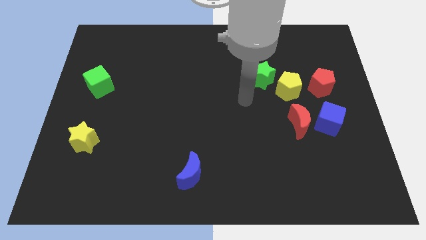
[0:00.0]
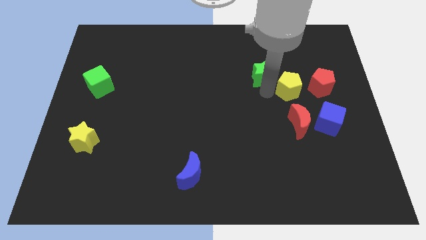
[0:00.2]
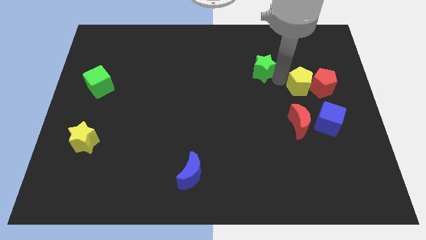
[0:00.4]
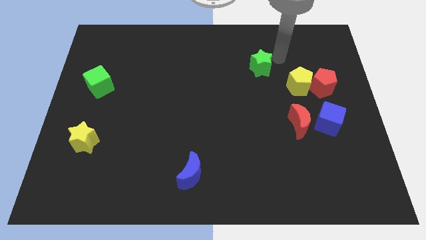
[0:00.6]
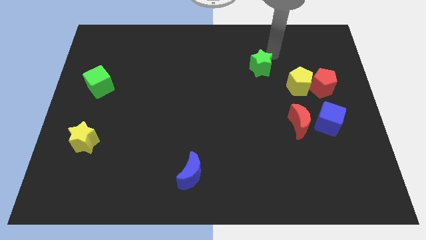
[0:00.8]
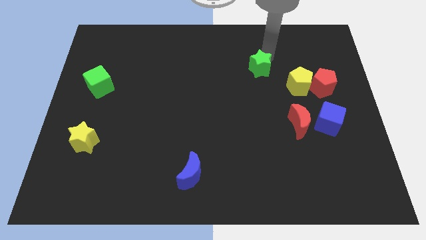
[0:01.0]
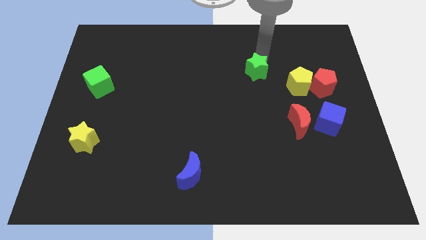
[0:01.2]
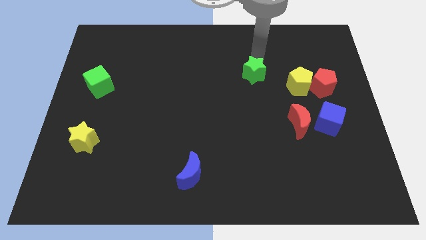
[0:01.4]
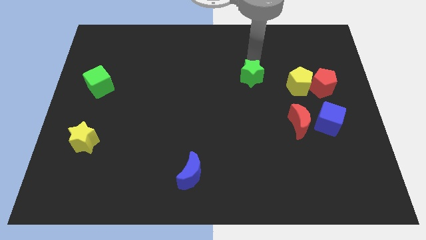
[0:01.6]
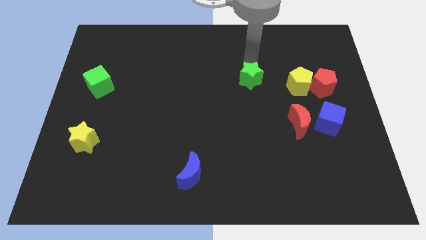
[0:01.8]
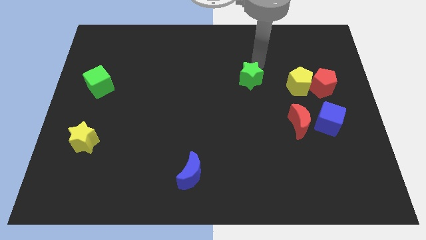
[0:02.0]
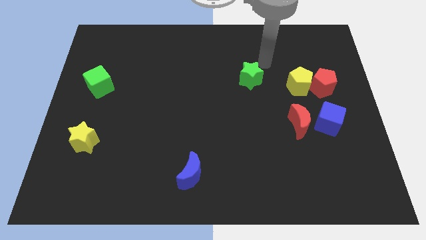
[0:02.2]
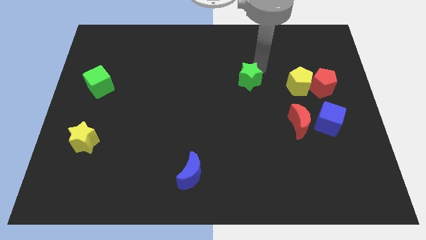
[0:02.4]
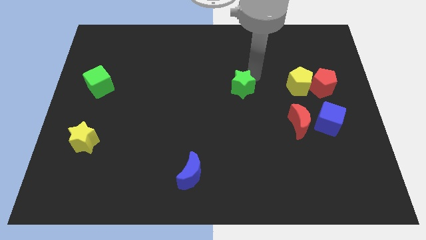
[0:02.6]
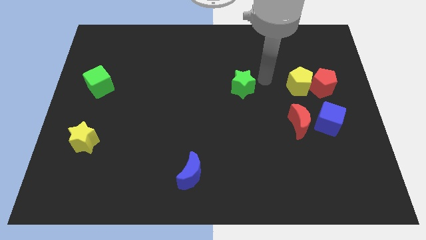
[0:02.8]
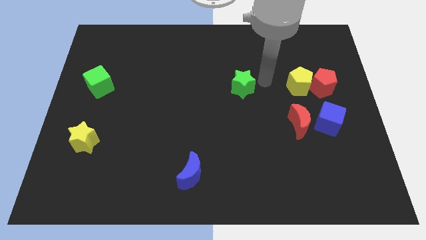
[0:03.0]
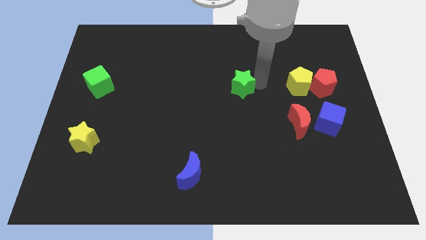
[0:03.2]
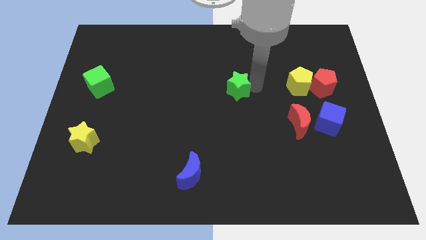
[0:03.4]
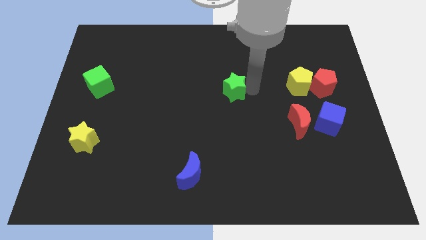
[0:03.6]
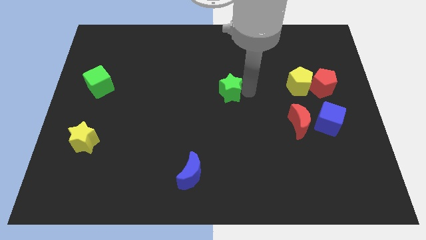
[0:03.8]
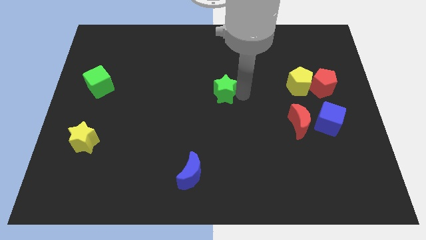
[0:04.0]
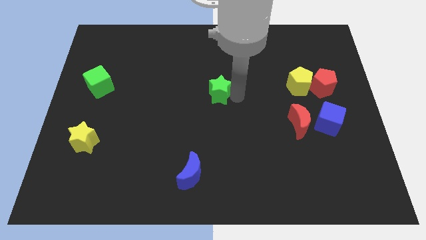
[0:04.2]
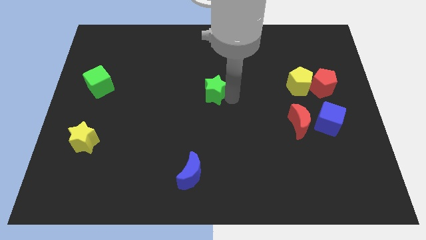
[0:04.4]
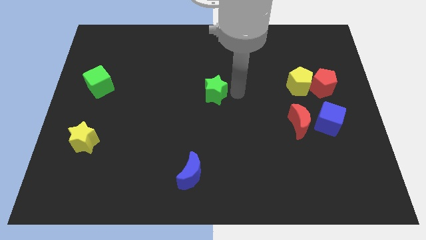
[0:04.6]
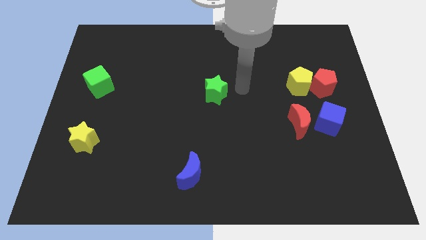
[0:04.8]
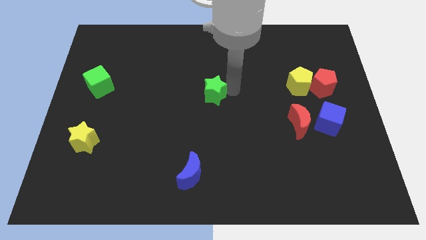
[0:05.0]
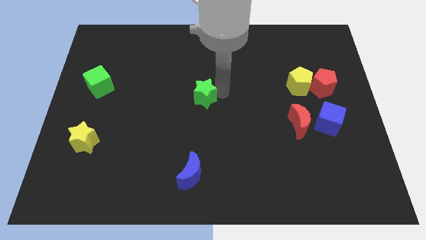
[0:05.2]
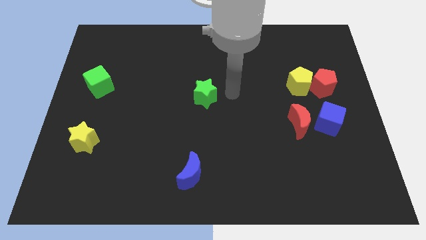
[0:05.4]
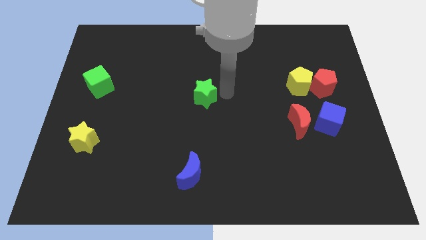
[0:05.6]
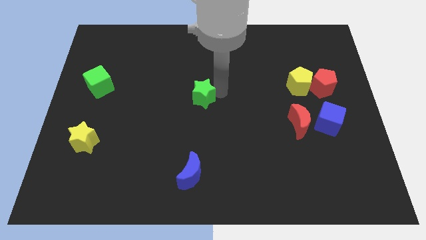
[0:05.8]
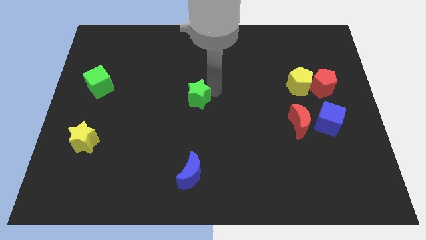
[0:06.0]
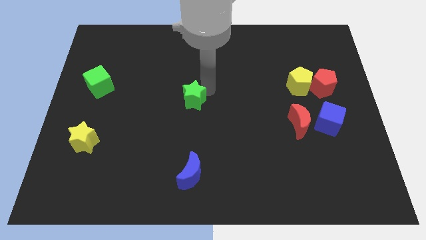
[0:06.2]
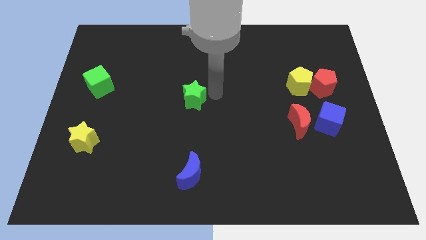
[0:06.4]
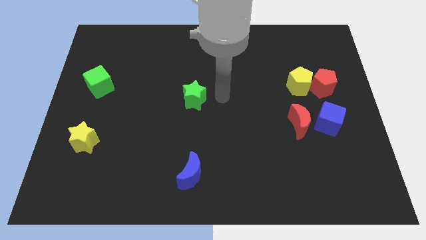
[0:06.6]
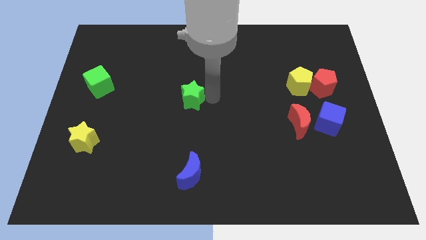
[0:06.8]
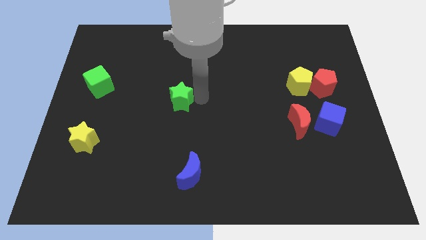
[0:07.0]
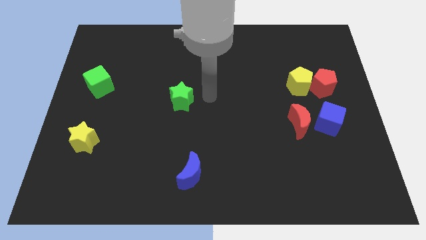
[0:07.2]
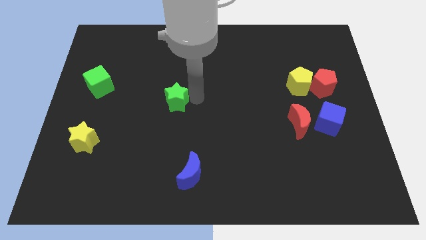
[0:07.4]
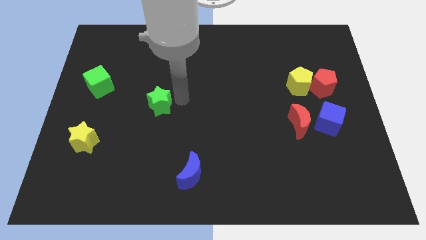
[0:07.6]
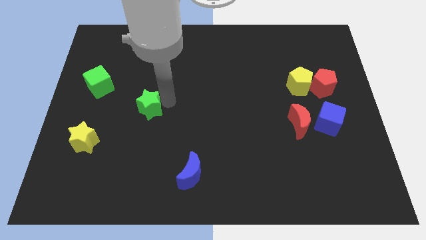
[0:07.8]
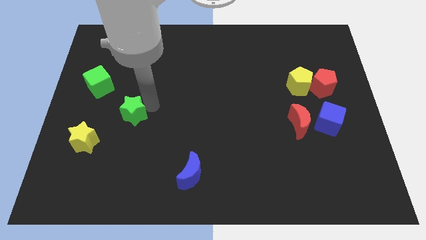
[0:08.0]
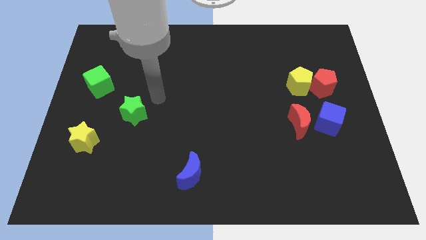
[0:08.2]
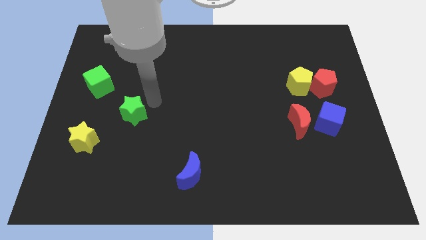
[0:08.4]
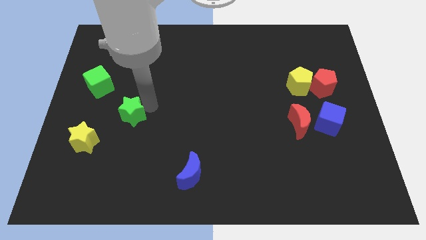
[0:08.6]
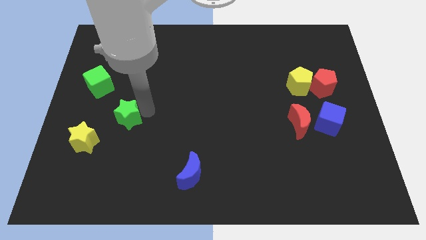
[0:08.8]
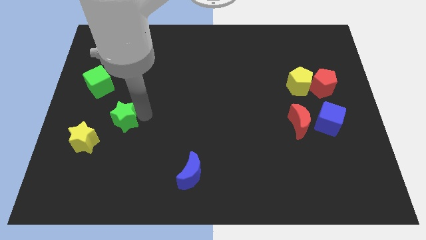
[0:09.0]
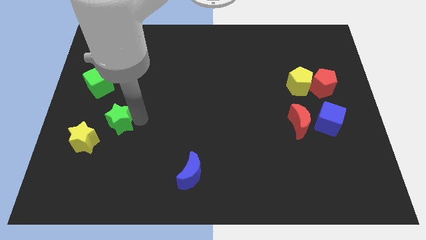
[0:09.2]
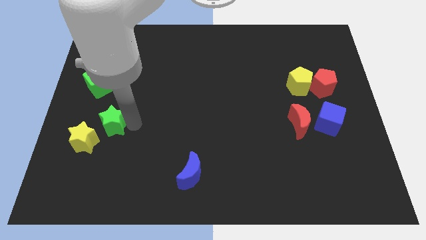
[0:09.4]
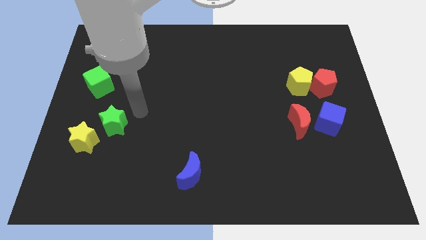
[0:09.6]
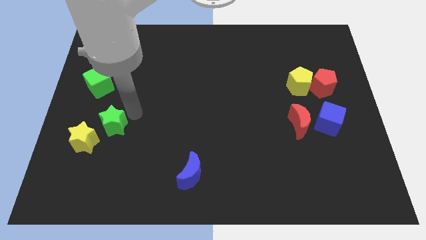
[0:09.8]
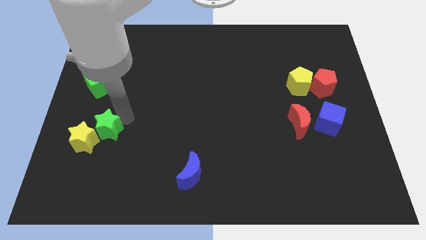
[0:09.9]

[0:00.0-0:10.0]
move the green star towards the yellow star

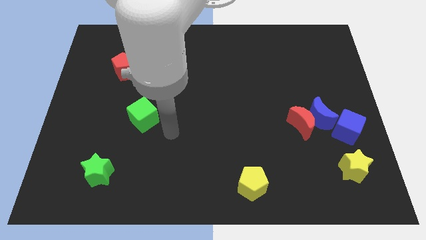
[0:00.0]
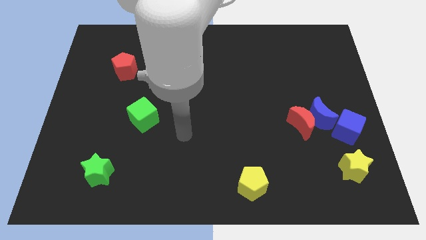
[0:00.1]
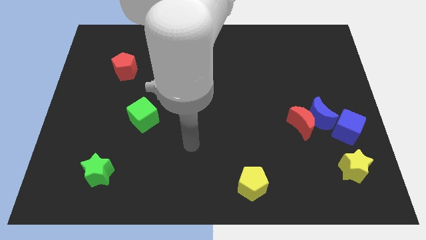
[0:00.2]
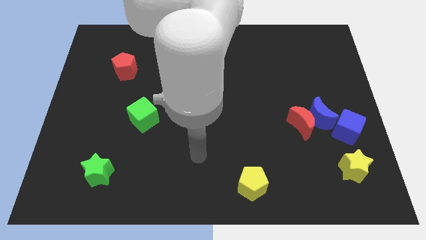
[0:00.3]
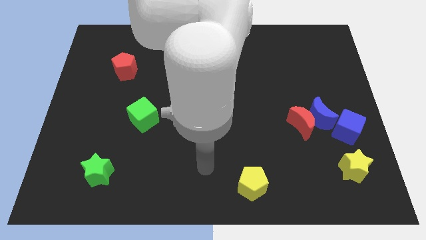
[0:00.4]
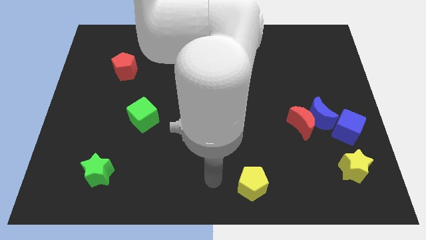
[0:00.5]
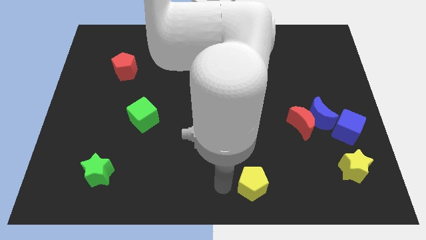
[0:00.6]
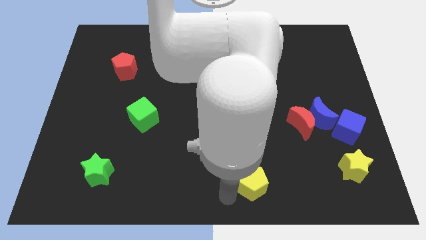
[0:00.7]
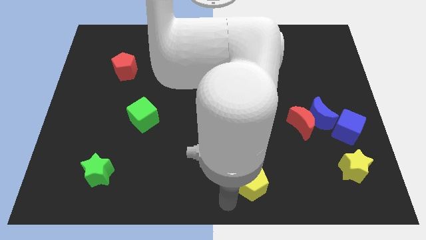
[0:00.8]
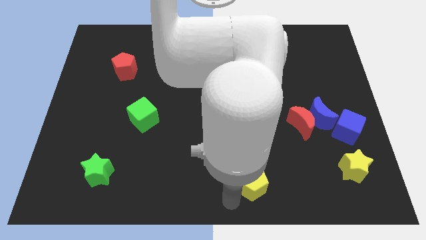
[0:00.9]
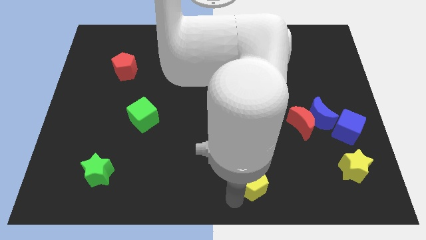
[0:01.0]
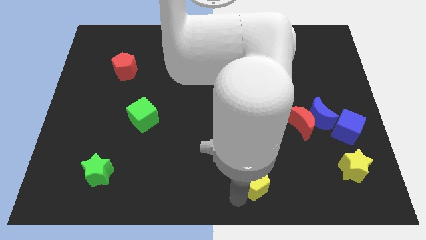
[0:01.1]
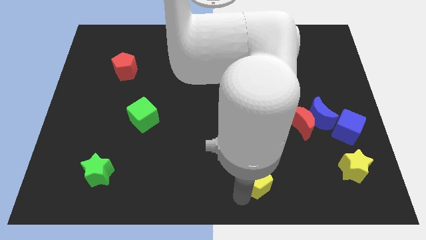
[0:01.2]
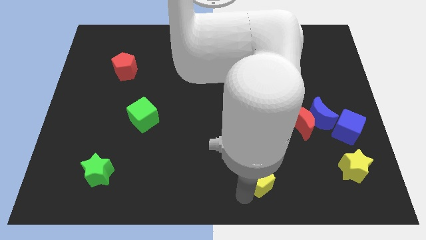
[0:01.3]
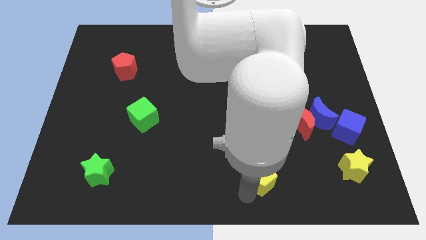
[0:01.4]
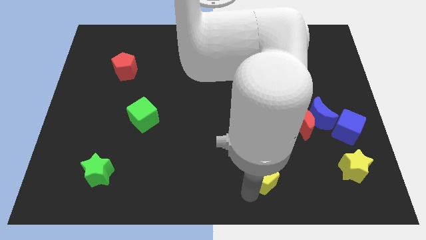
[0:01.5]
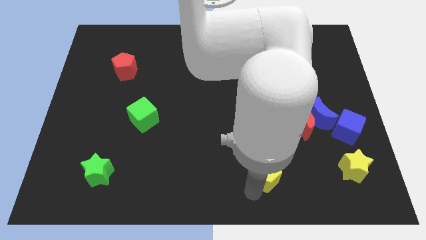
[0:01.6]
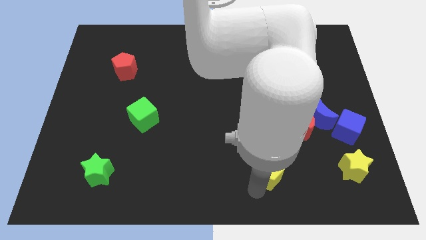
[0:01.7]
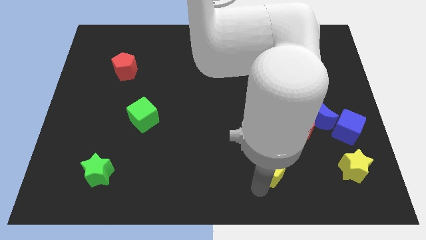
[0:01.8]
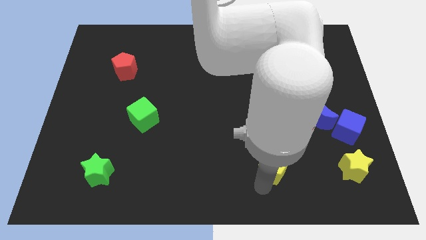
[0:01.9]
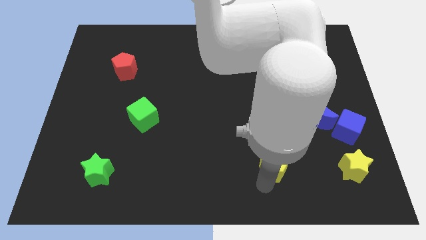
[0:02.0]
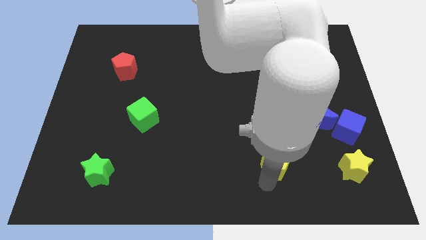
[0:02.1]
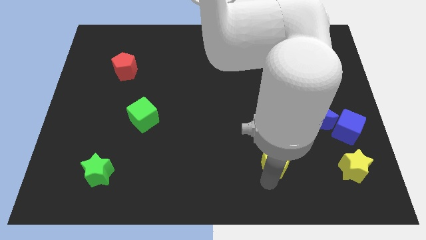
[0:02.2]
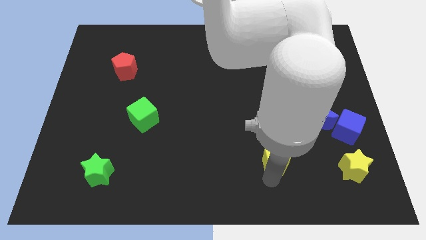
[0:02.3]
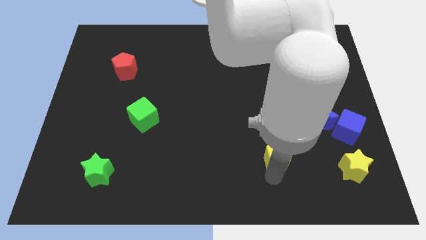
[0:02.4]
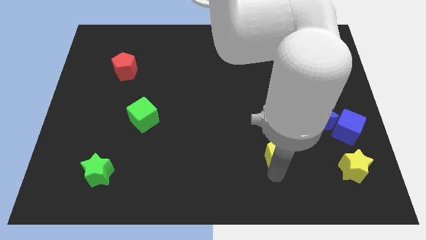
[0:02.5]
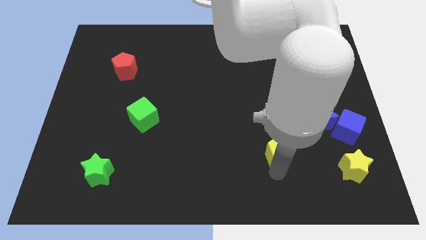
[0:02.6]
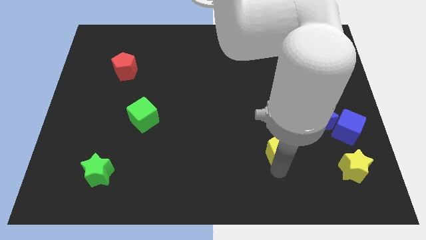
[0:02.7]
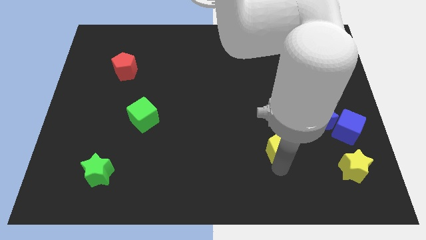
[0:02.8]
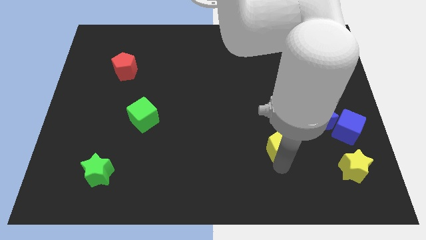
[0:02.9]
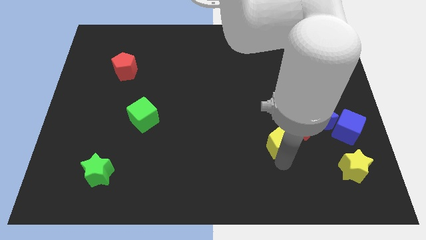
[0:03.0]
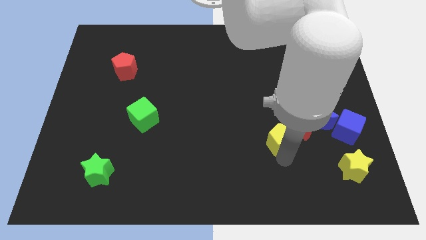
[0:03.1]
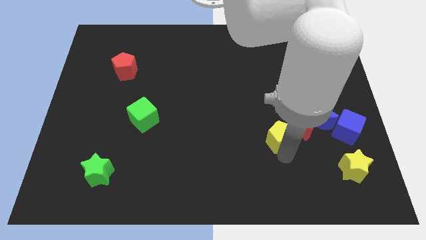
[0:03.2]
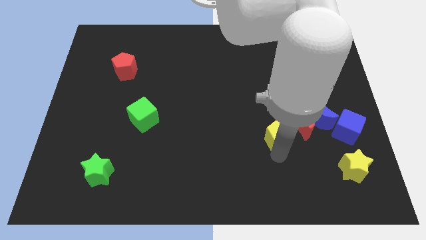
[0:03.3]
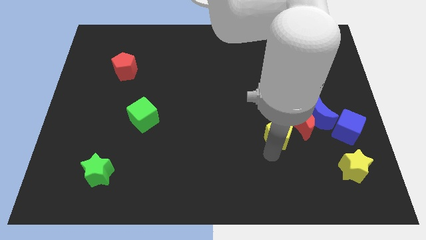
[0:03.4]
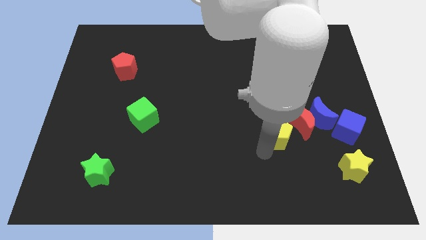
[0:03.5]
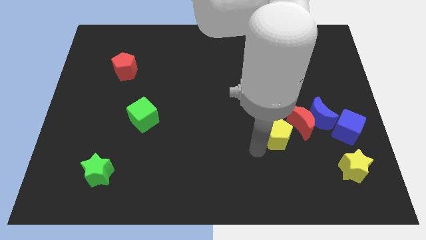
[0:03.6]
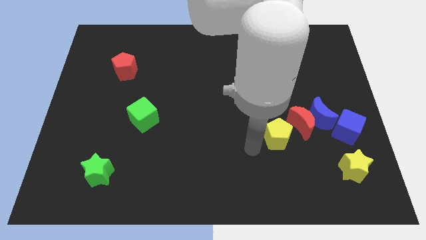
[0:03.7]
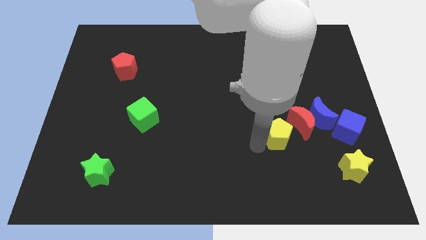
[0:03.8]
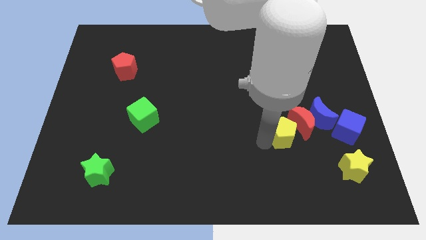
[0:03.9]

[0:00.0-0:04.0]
slide the yellow pentagon to the red moon
